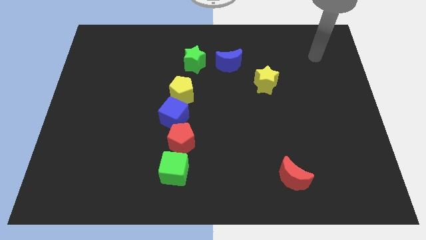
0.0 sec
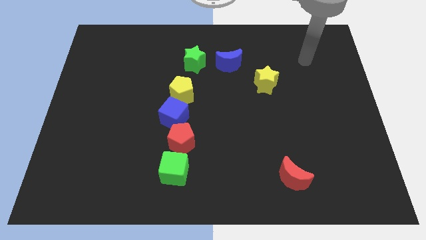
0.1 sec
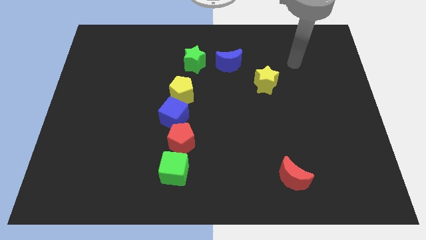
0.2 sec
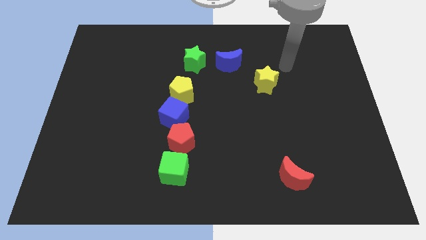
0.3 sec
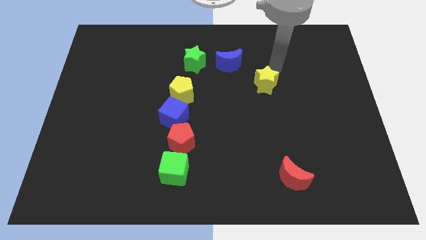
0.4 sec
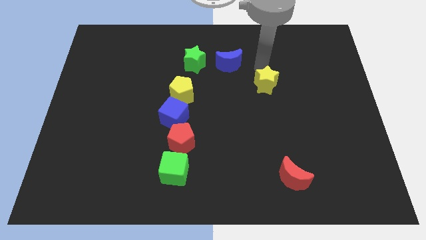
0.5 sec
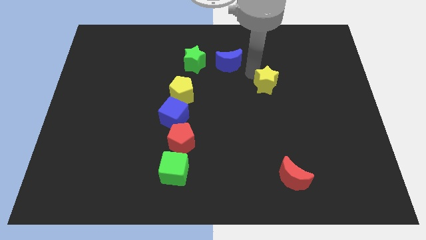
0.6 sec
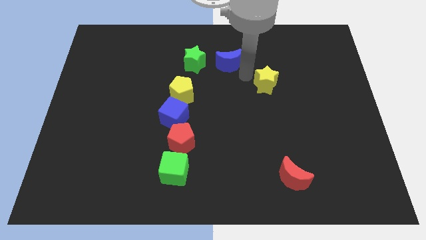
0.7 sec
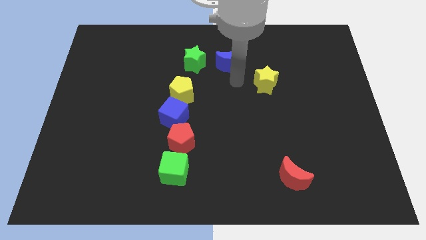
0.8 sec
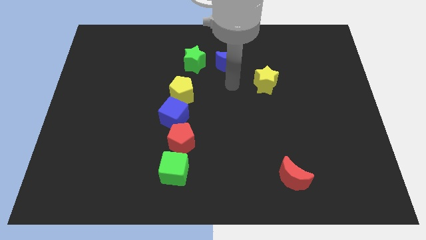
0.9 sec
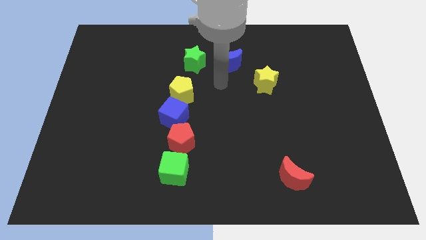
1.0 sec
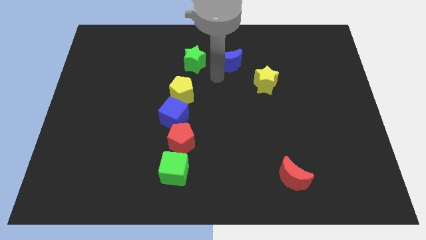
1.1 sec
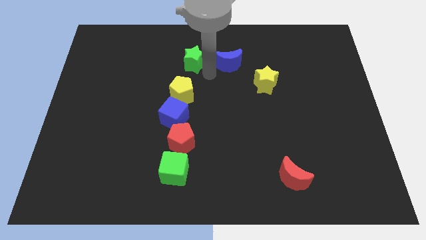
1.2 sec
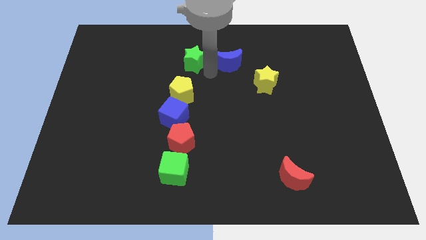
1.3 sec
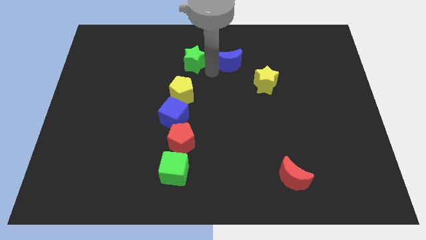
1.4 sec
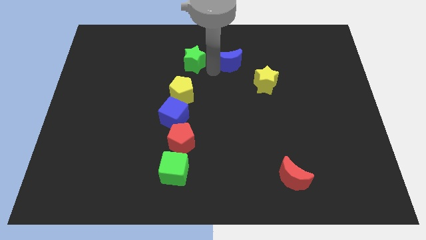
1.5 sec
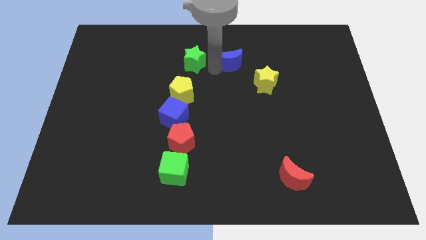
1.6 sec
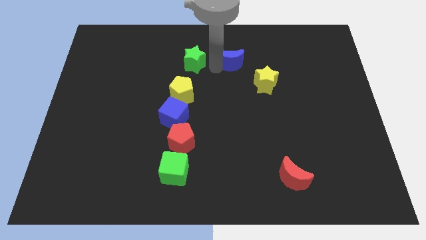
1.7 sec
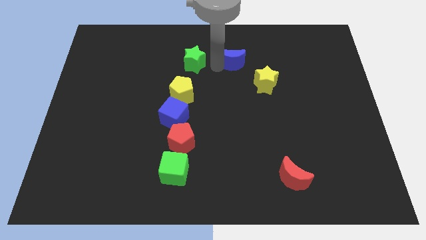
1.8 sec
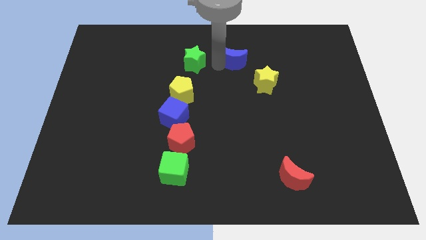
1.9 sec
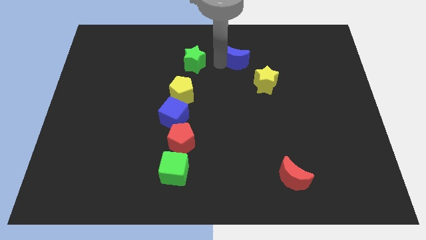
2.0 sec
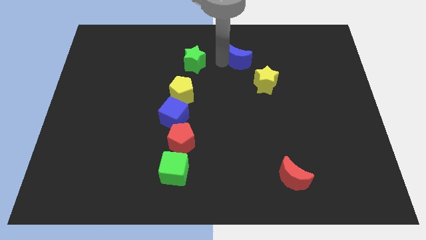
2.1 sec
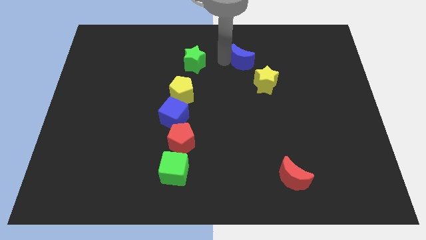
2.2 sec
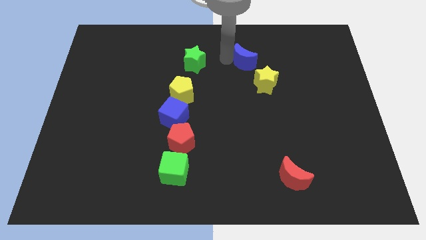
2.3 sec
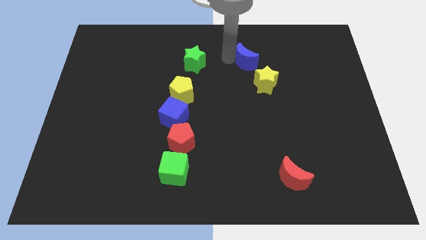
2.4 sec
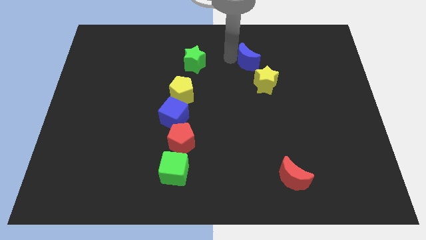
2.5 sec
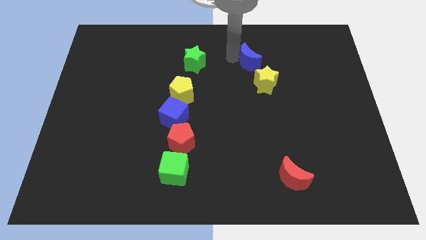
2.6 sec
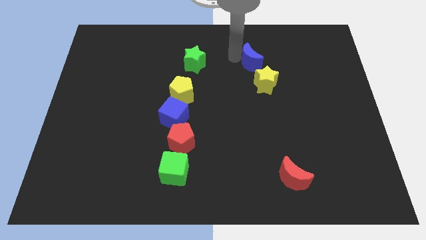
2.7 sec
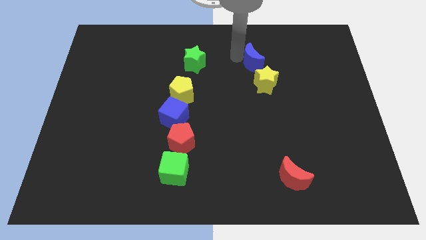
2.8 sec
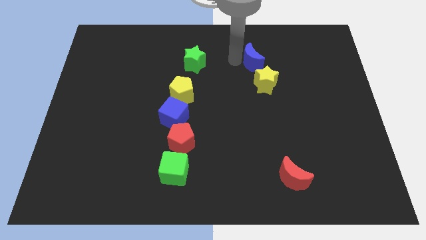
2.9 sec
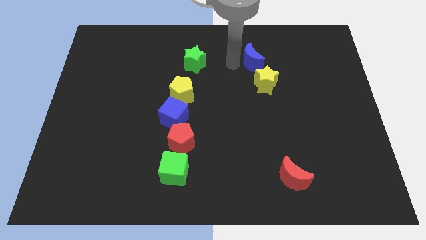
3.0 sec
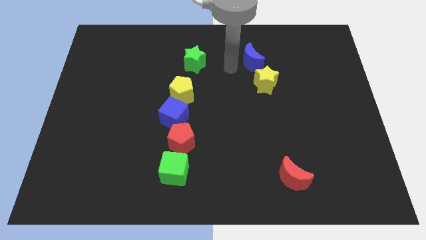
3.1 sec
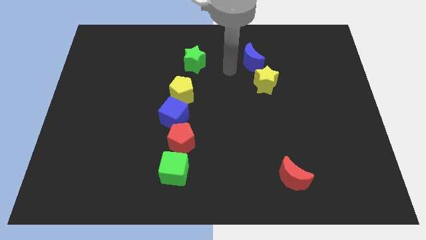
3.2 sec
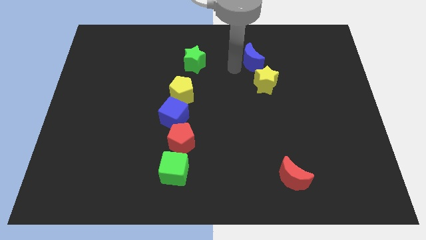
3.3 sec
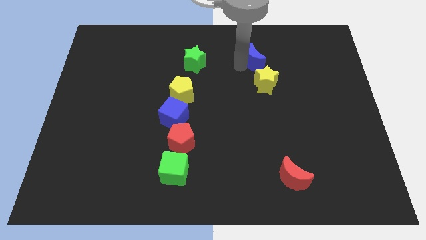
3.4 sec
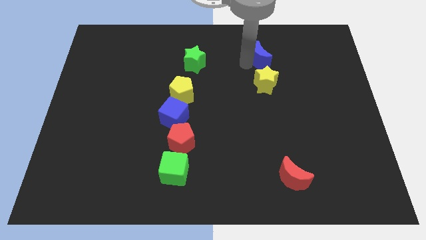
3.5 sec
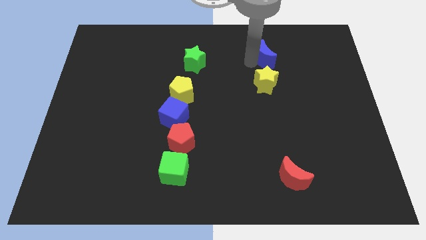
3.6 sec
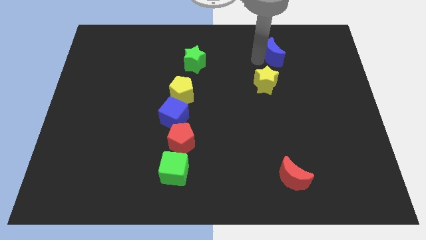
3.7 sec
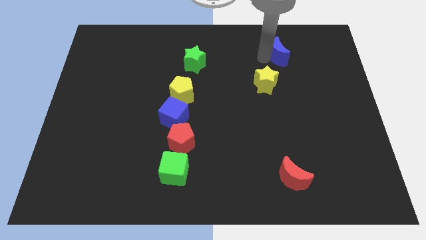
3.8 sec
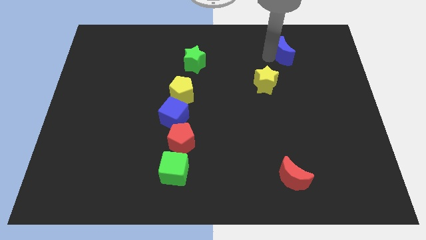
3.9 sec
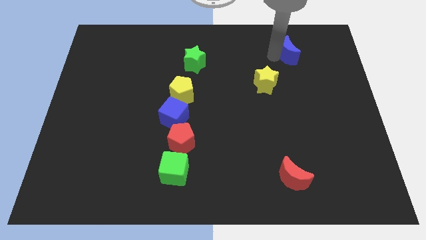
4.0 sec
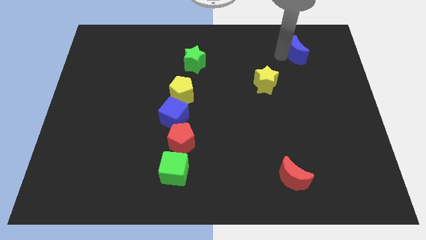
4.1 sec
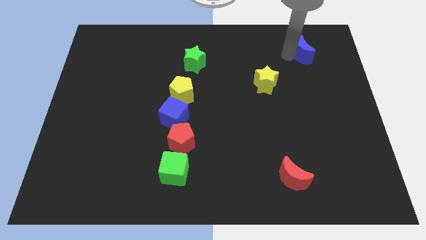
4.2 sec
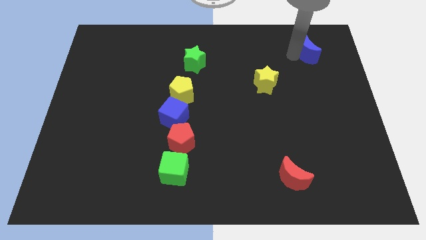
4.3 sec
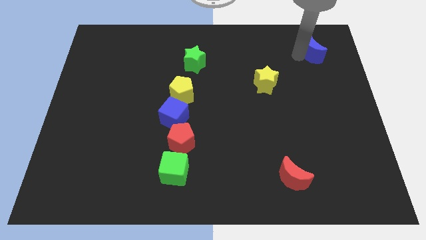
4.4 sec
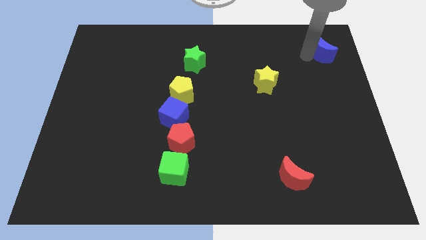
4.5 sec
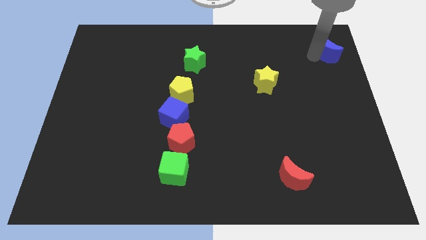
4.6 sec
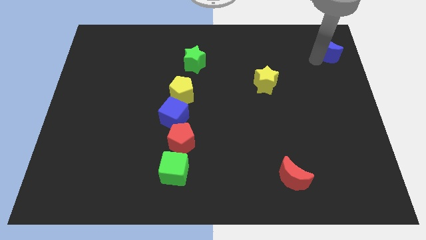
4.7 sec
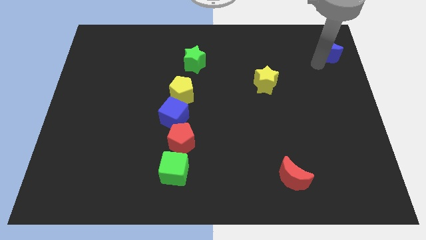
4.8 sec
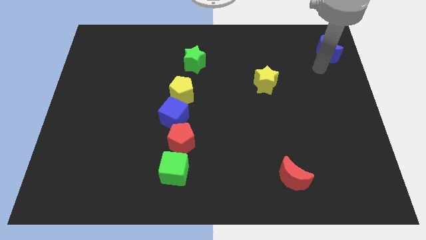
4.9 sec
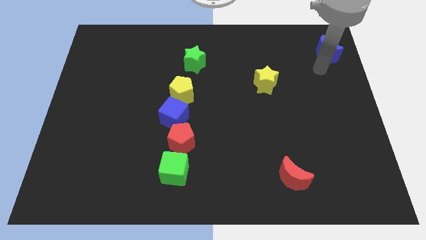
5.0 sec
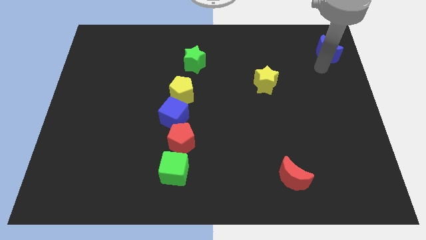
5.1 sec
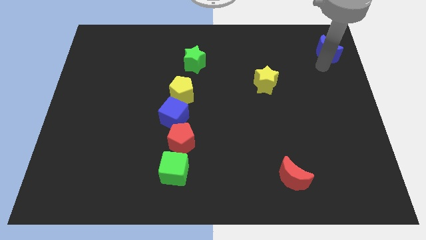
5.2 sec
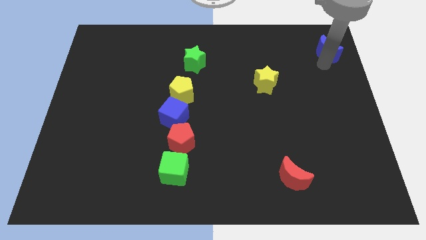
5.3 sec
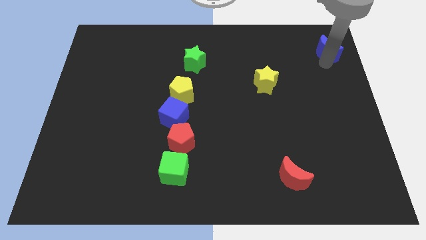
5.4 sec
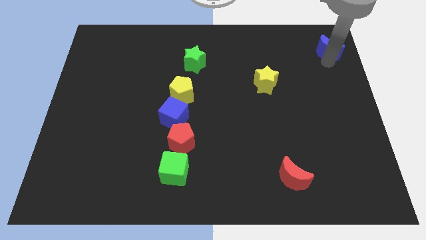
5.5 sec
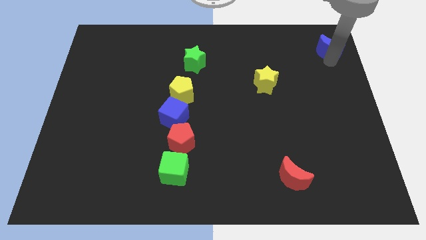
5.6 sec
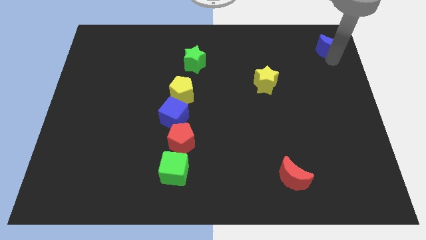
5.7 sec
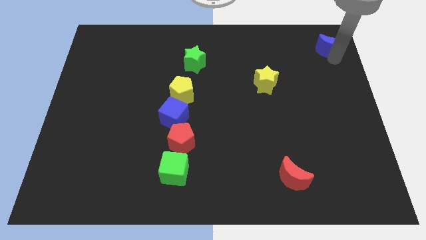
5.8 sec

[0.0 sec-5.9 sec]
slide the blue moon to the top right corner

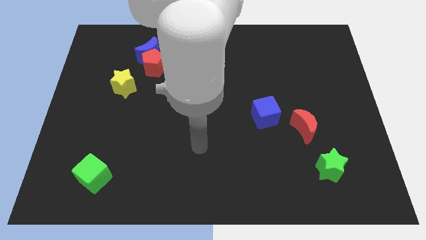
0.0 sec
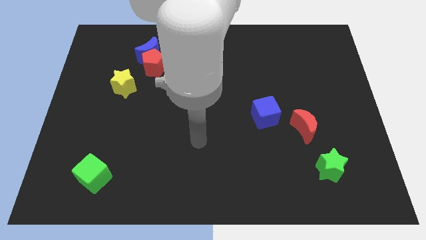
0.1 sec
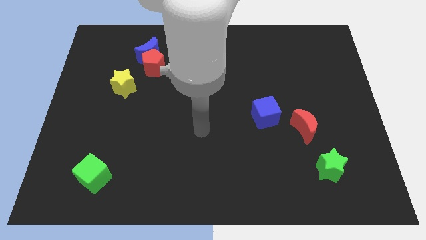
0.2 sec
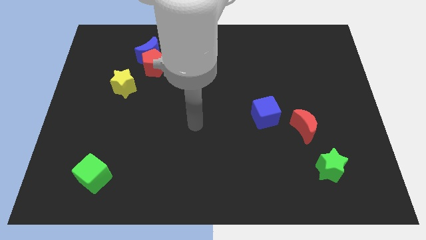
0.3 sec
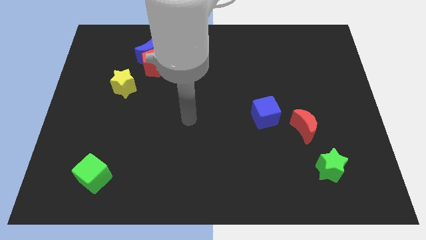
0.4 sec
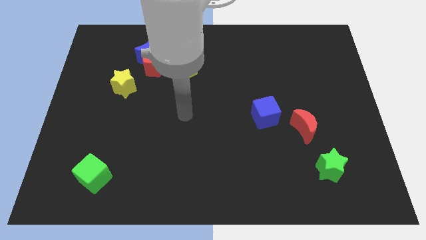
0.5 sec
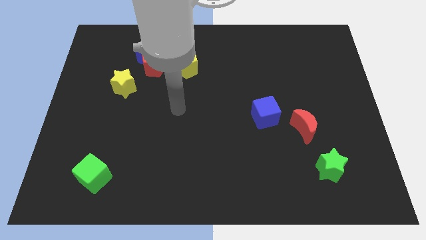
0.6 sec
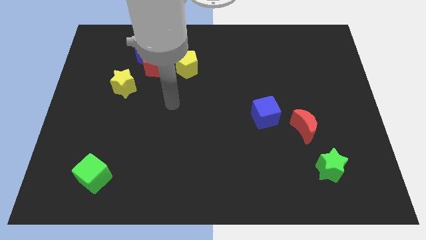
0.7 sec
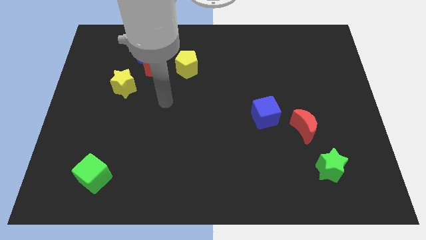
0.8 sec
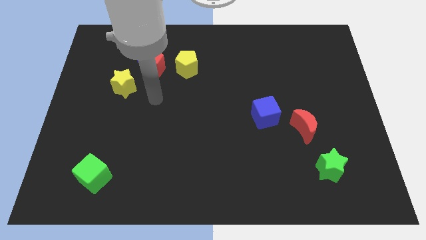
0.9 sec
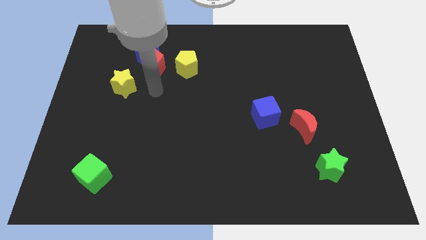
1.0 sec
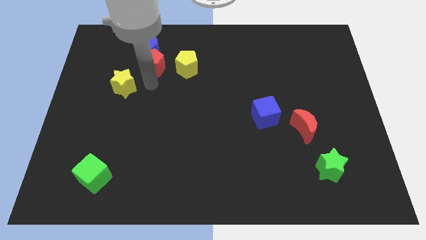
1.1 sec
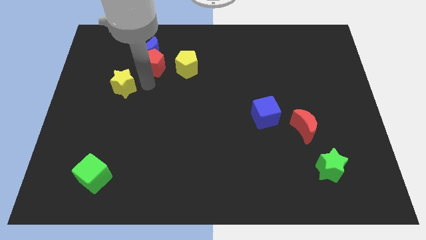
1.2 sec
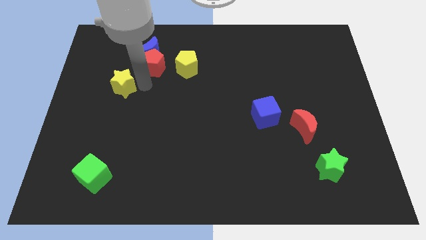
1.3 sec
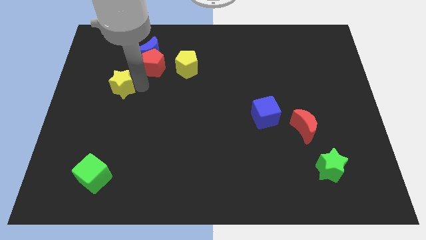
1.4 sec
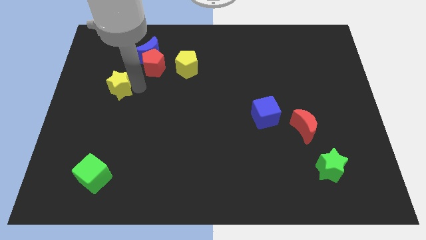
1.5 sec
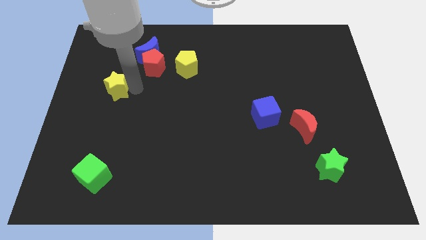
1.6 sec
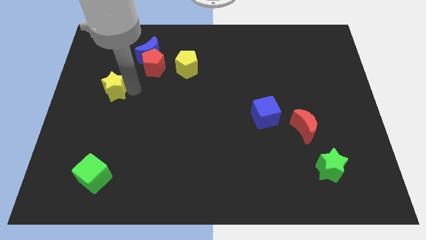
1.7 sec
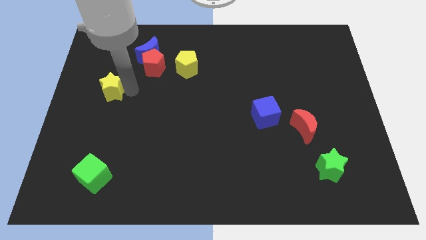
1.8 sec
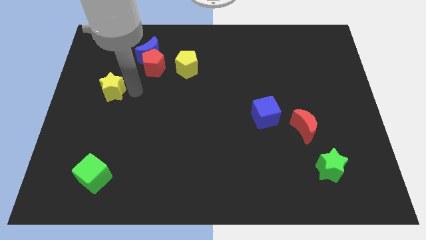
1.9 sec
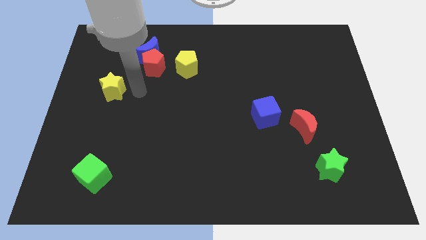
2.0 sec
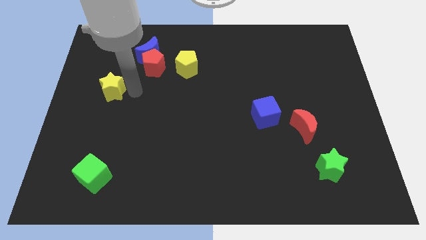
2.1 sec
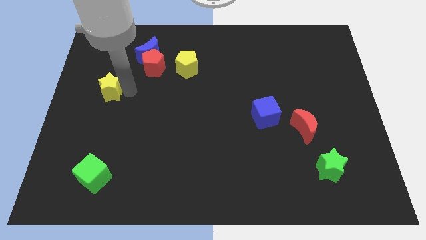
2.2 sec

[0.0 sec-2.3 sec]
push the yellow star to the left side of the board
